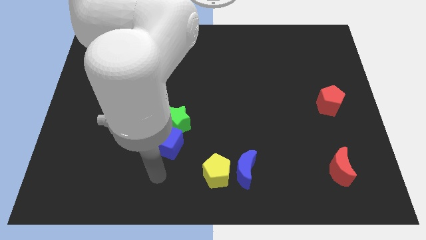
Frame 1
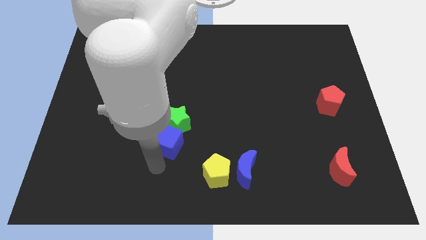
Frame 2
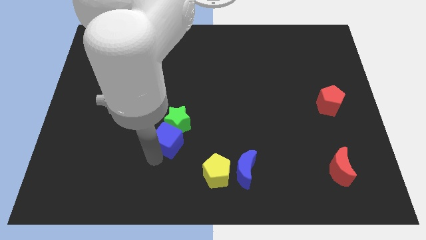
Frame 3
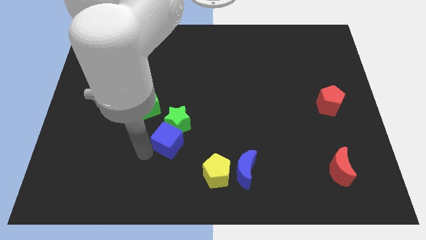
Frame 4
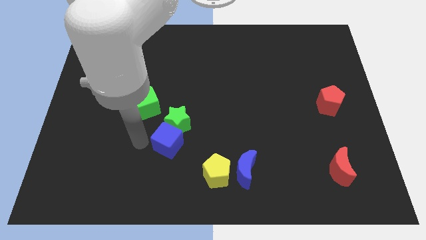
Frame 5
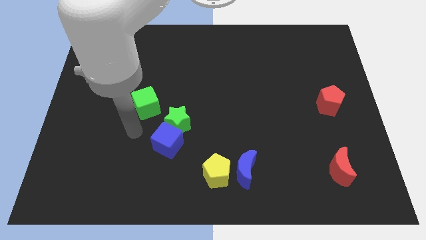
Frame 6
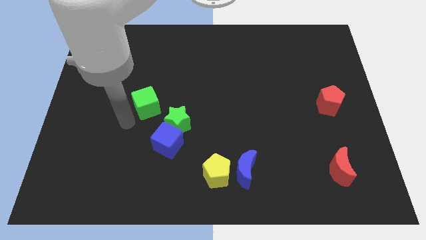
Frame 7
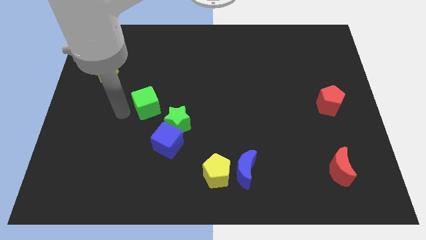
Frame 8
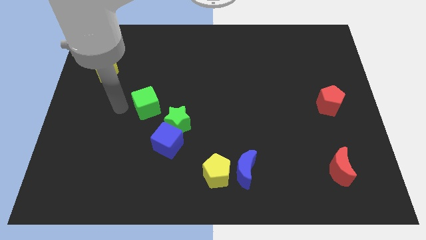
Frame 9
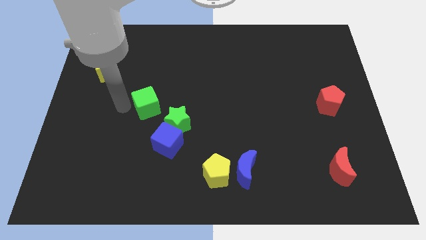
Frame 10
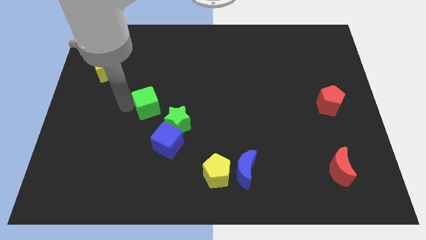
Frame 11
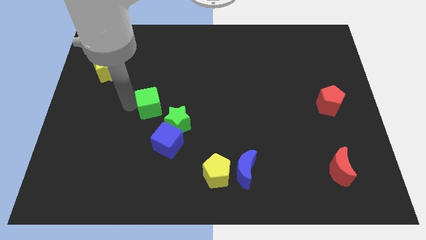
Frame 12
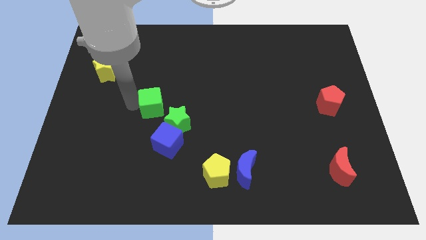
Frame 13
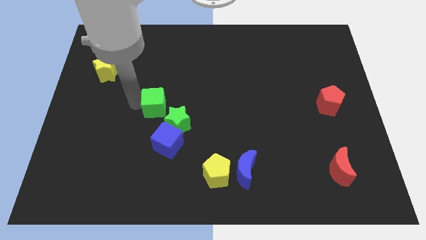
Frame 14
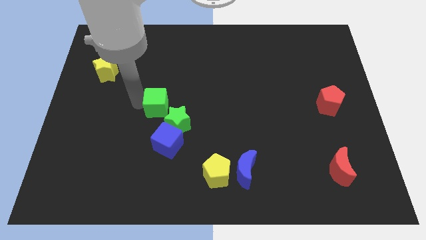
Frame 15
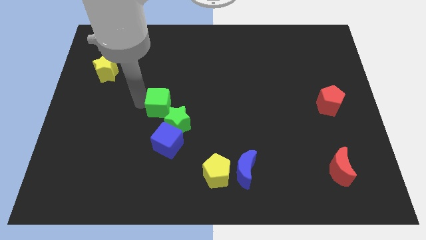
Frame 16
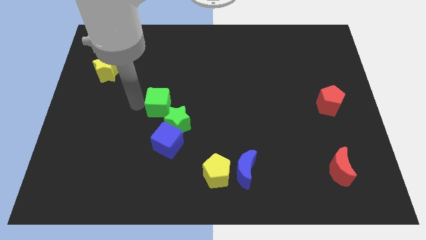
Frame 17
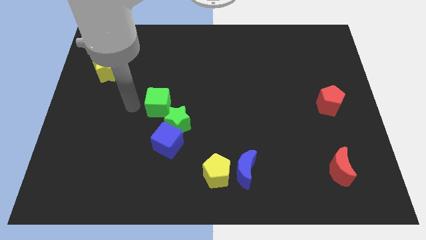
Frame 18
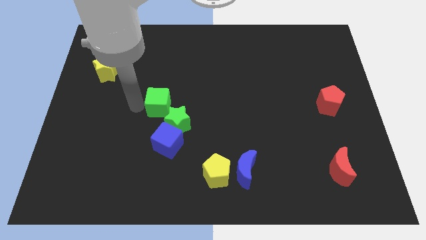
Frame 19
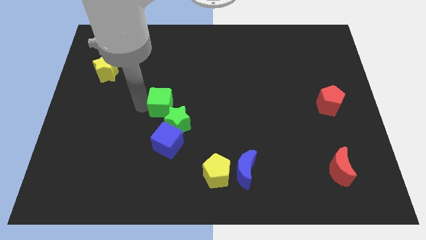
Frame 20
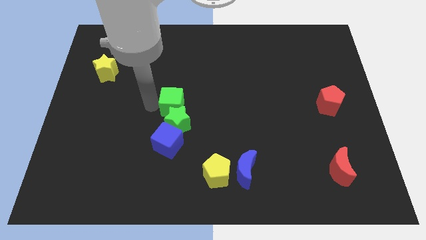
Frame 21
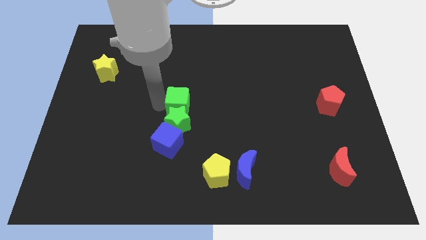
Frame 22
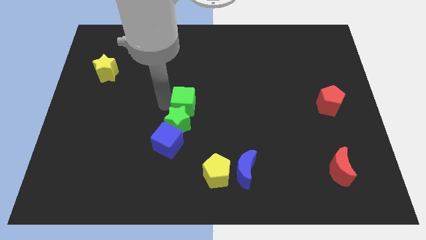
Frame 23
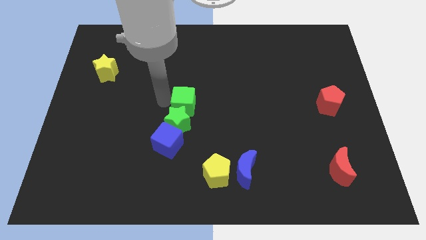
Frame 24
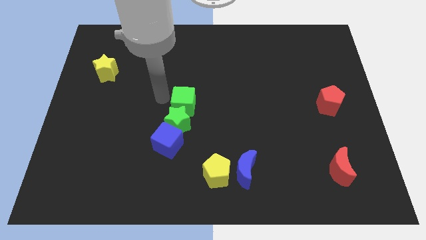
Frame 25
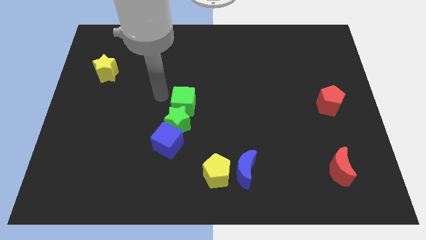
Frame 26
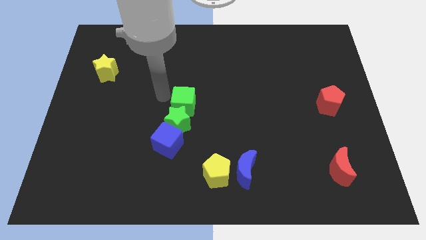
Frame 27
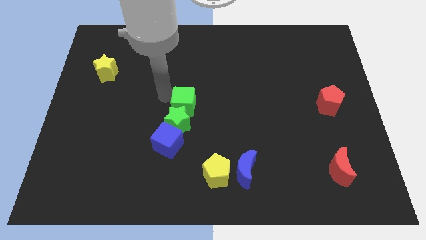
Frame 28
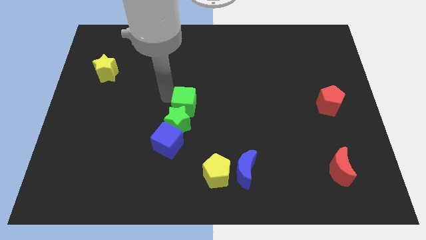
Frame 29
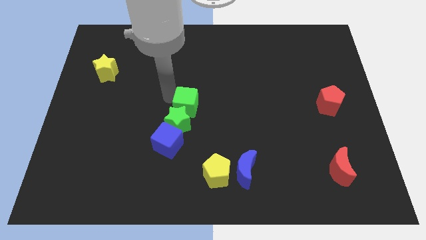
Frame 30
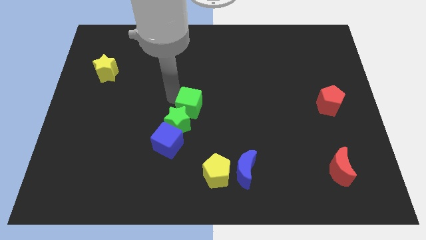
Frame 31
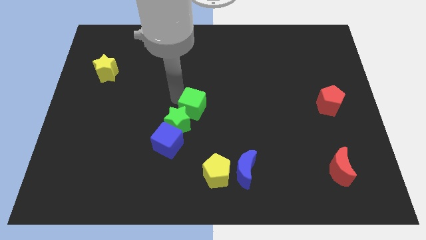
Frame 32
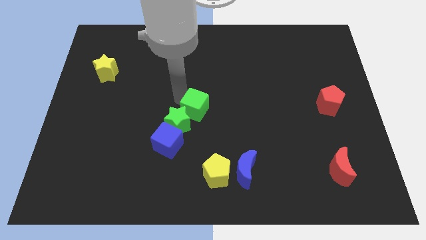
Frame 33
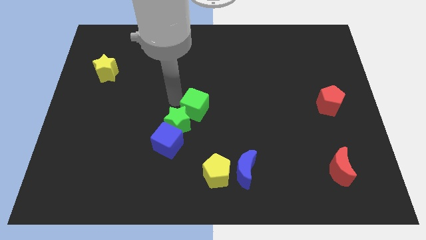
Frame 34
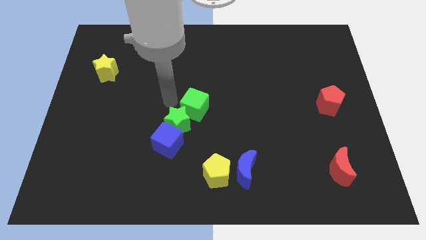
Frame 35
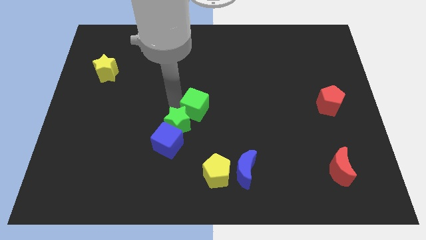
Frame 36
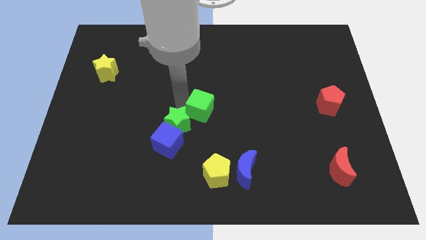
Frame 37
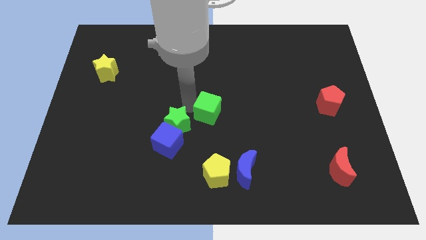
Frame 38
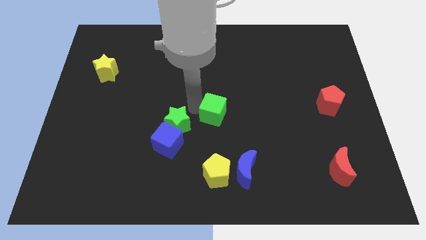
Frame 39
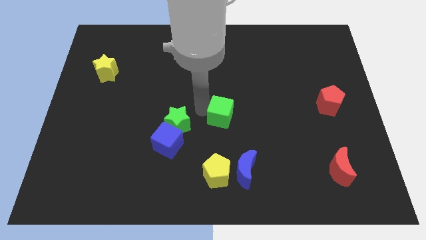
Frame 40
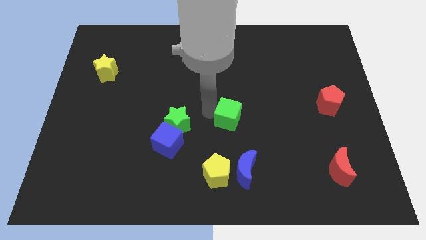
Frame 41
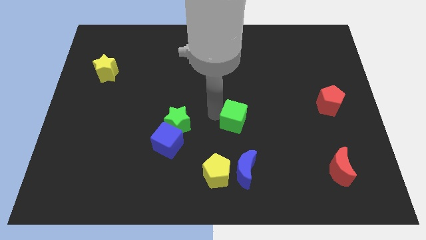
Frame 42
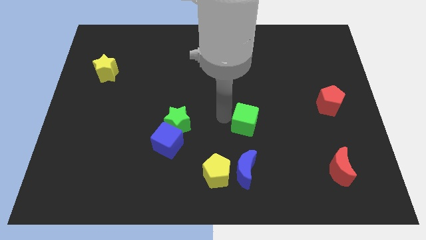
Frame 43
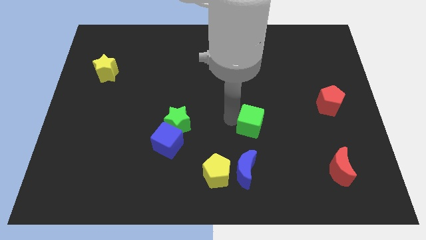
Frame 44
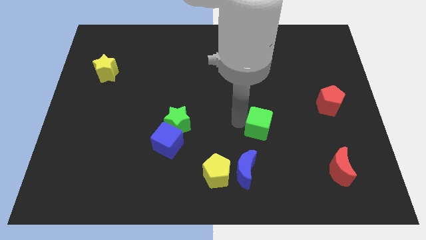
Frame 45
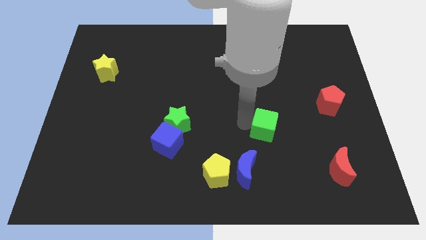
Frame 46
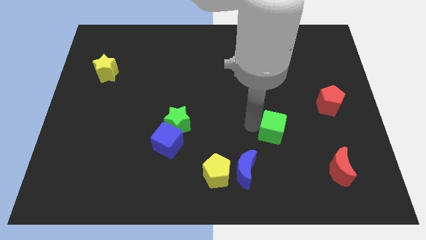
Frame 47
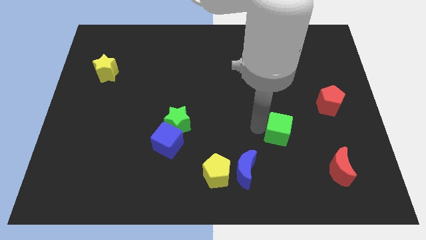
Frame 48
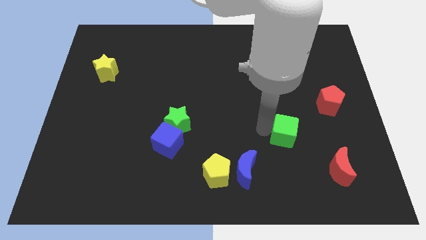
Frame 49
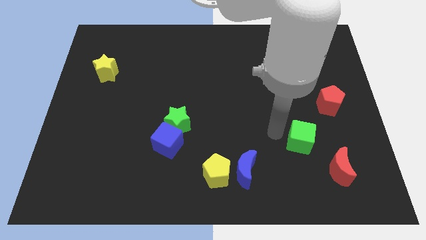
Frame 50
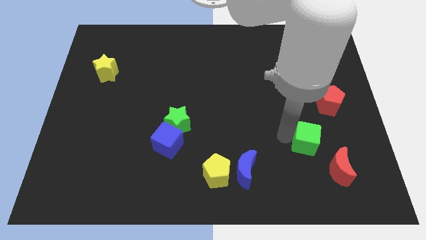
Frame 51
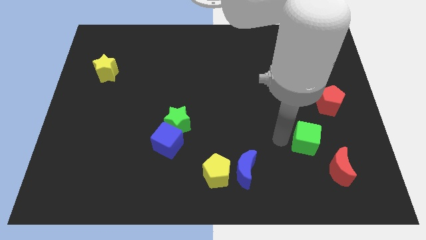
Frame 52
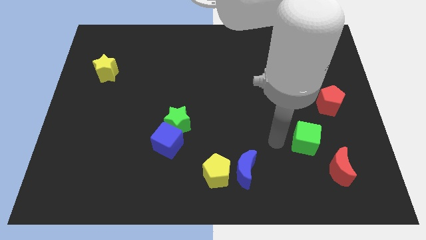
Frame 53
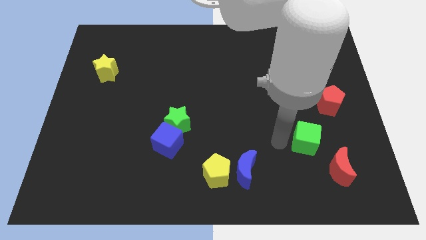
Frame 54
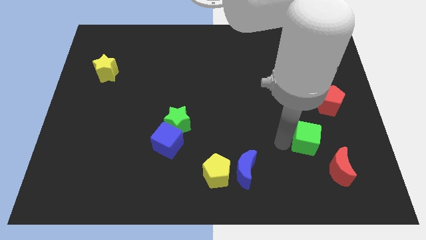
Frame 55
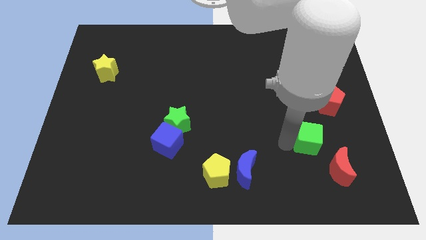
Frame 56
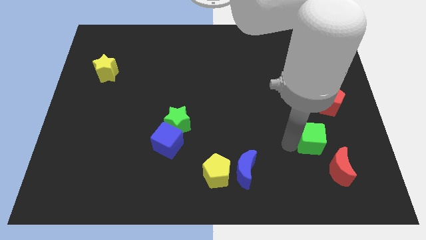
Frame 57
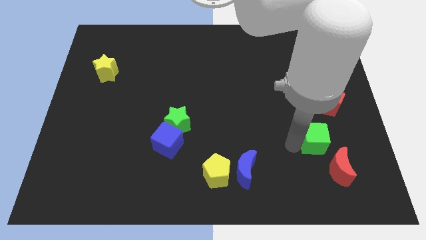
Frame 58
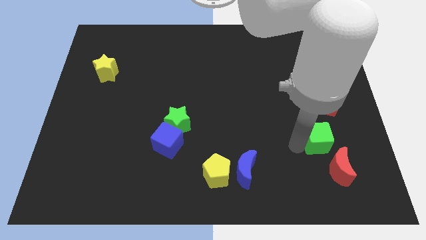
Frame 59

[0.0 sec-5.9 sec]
slide the green cube to the bottom side of the red pentagon

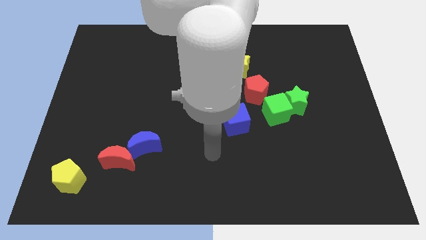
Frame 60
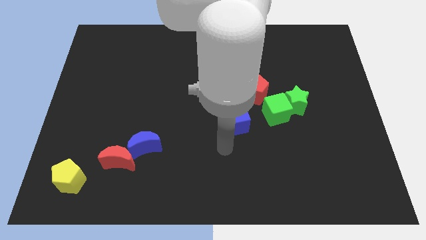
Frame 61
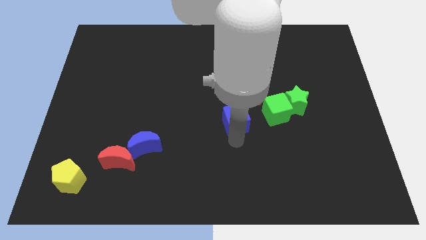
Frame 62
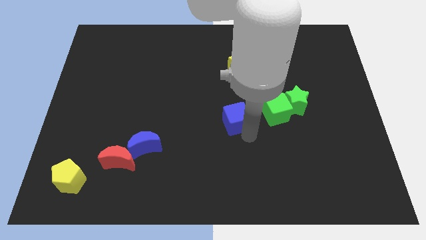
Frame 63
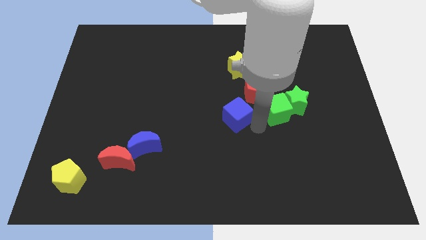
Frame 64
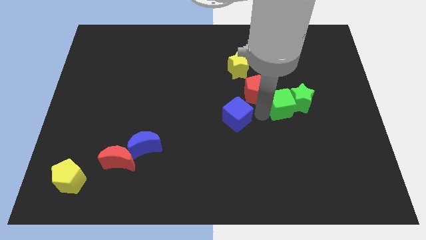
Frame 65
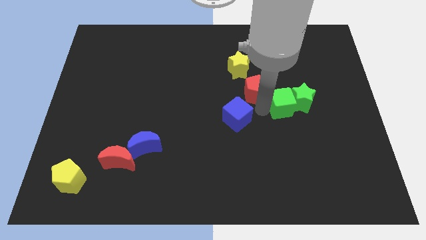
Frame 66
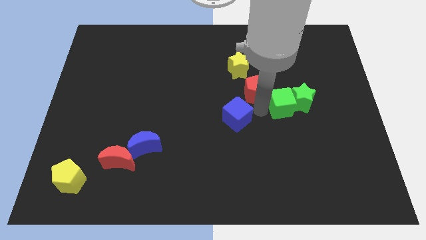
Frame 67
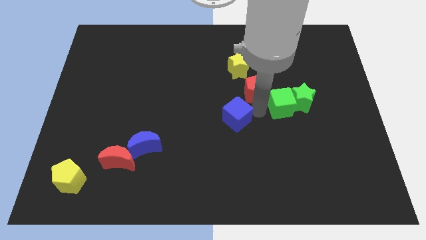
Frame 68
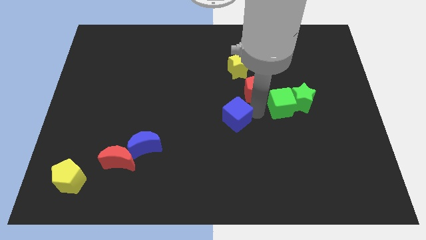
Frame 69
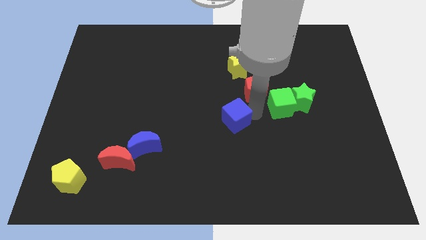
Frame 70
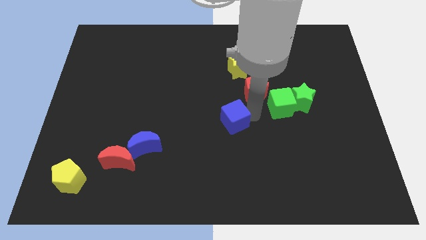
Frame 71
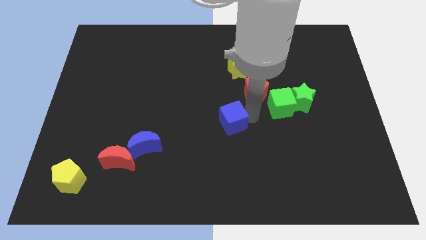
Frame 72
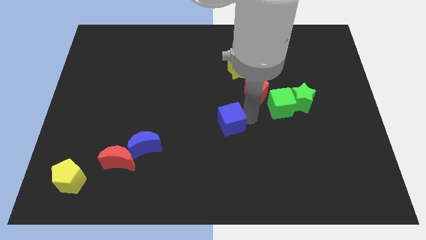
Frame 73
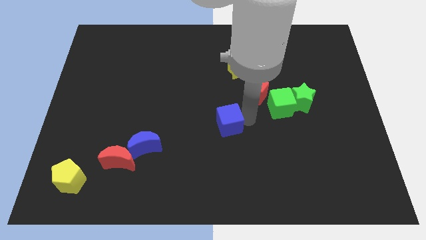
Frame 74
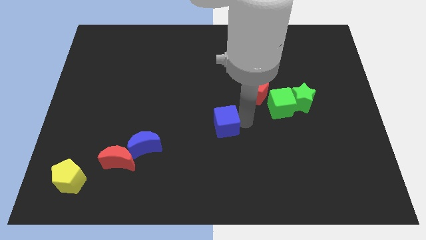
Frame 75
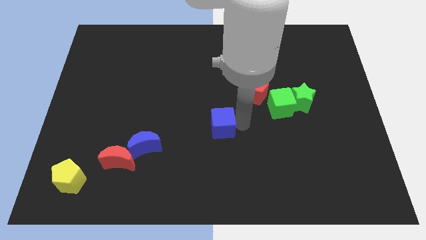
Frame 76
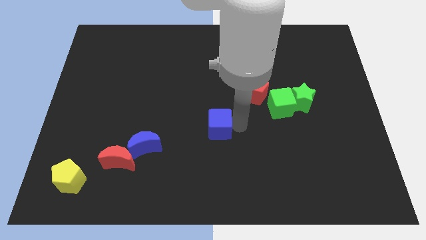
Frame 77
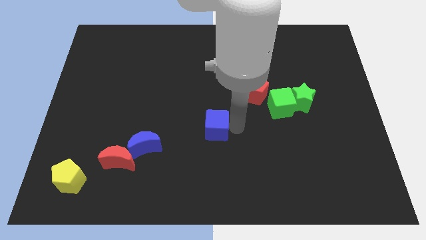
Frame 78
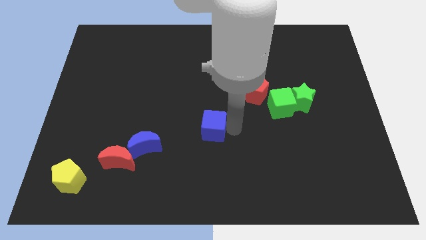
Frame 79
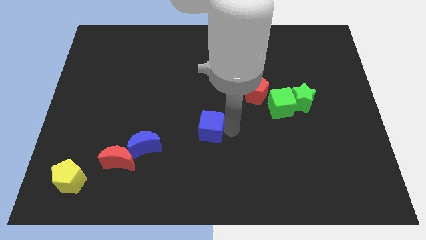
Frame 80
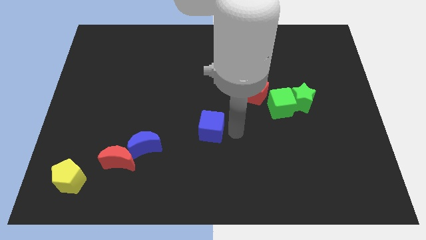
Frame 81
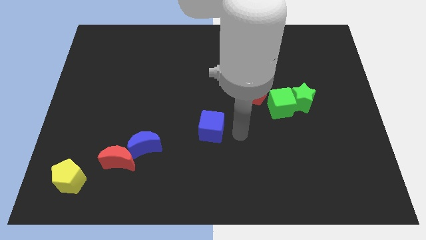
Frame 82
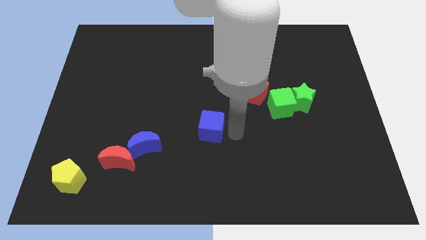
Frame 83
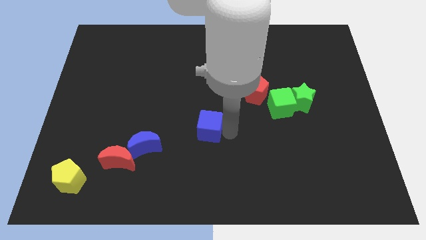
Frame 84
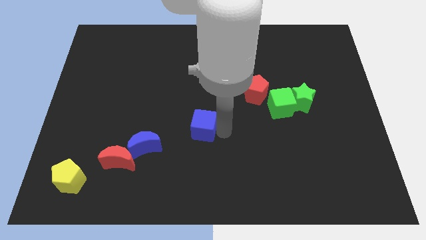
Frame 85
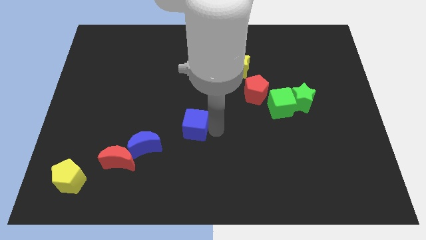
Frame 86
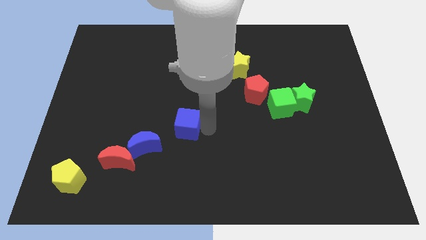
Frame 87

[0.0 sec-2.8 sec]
move the blue cube diagonally up and to the right of the blue moon
